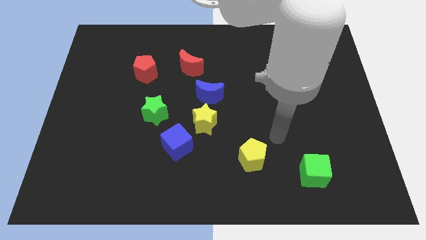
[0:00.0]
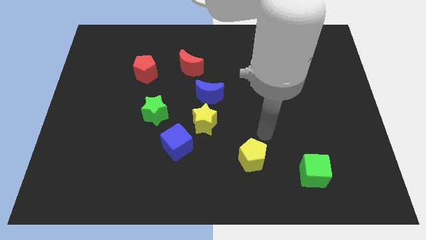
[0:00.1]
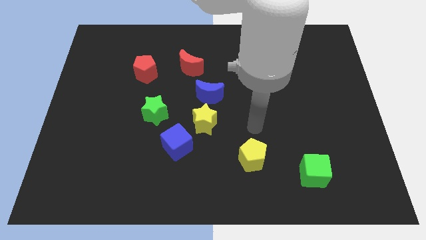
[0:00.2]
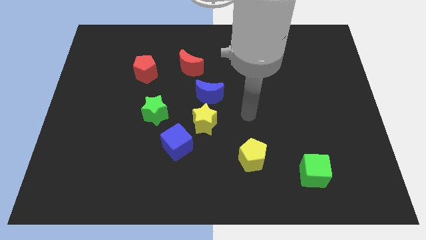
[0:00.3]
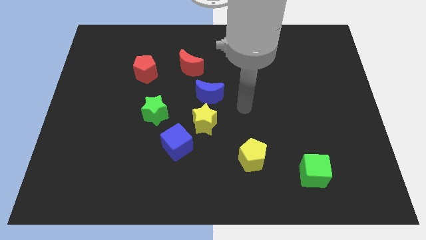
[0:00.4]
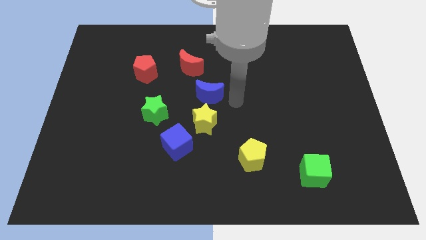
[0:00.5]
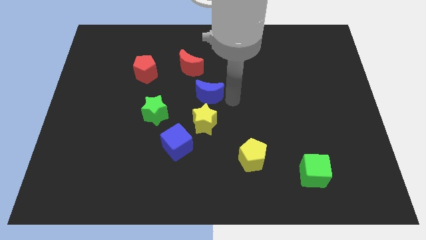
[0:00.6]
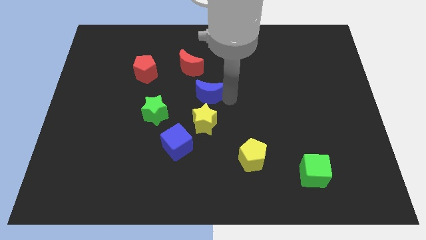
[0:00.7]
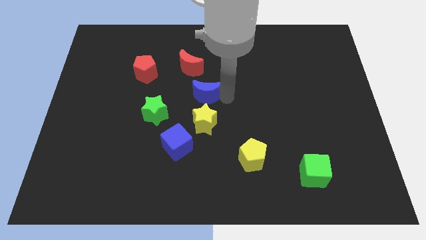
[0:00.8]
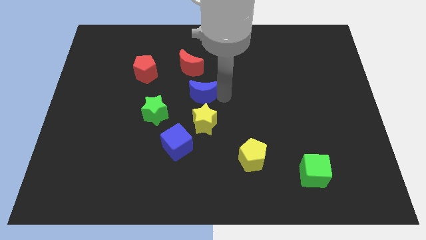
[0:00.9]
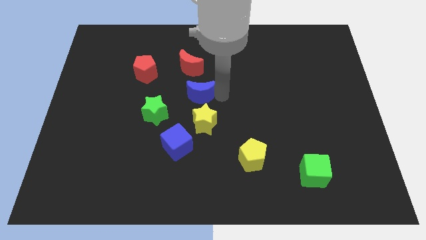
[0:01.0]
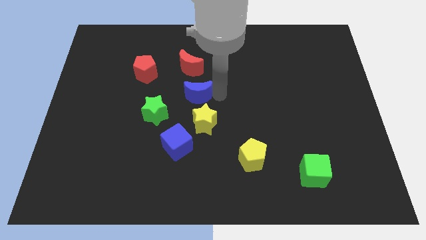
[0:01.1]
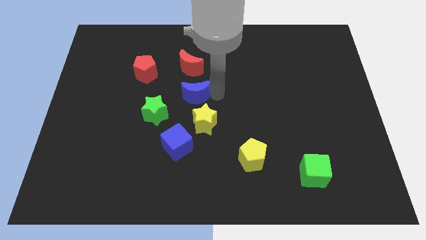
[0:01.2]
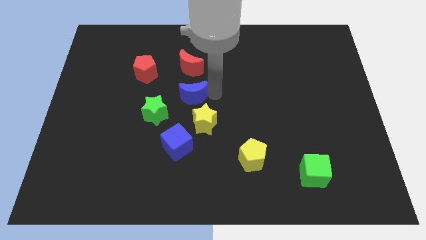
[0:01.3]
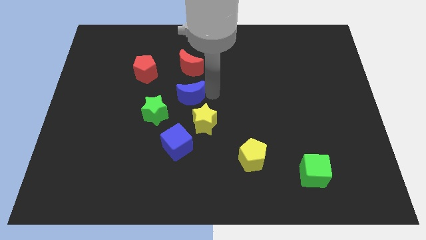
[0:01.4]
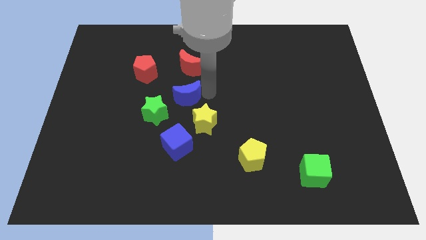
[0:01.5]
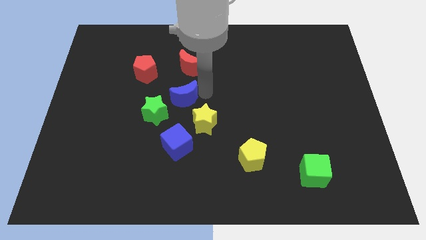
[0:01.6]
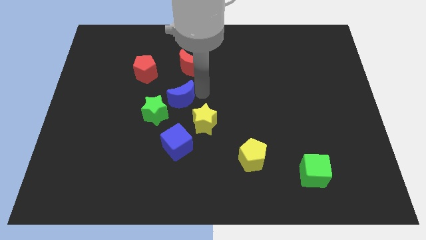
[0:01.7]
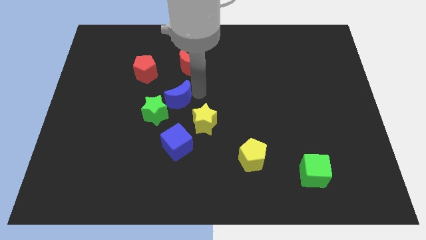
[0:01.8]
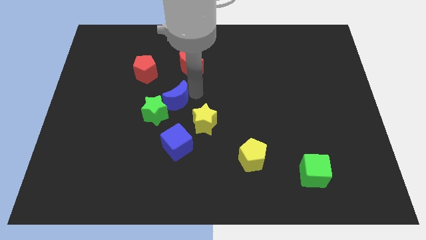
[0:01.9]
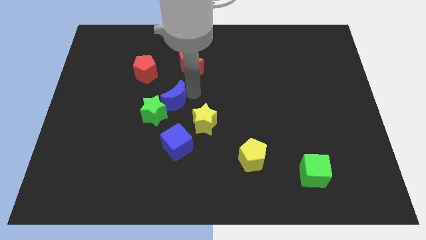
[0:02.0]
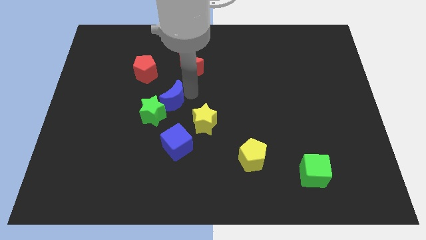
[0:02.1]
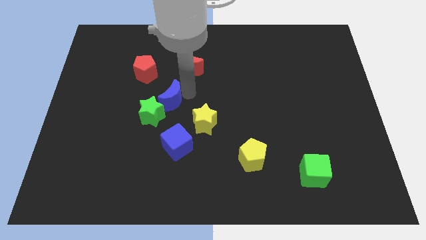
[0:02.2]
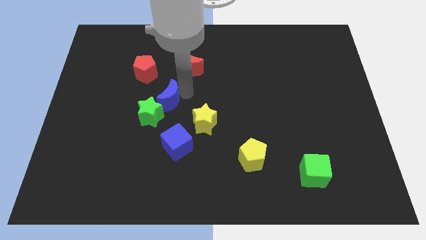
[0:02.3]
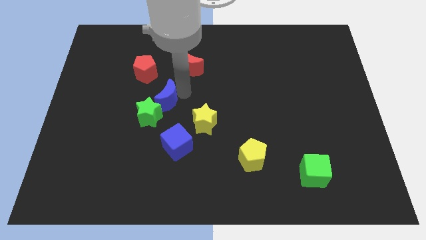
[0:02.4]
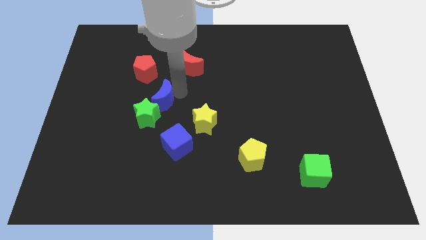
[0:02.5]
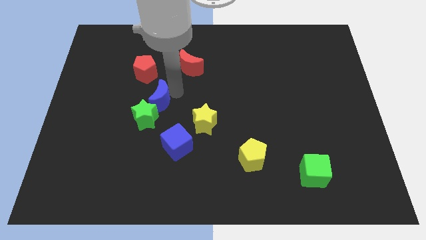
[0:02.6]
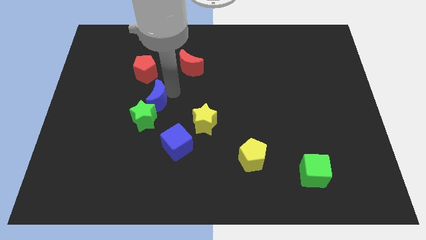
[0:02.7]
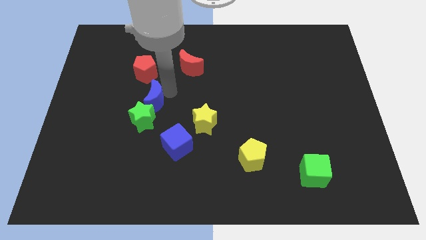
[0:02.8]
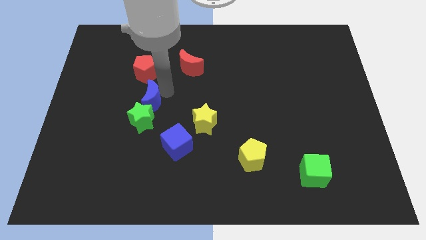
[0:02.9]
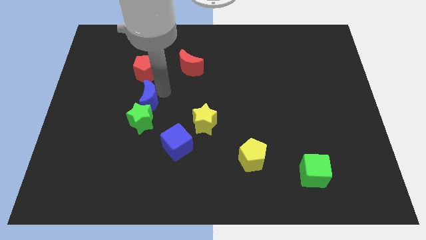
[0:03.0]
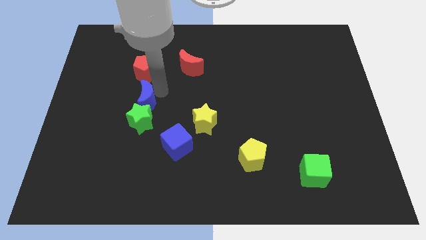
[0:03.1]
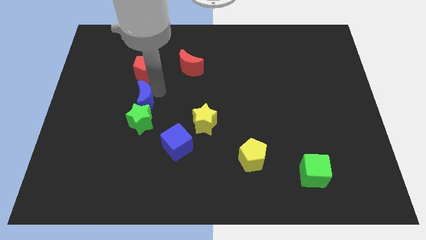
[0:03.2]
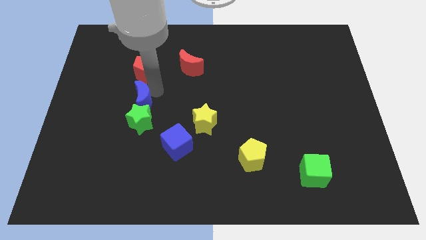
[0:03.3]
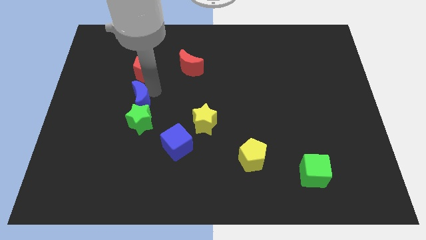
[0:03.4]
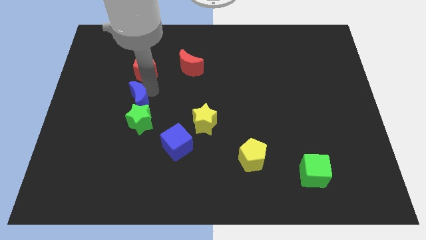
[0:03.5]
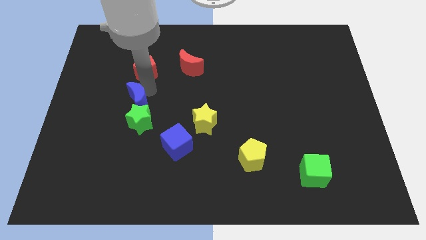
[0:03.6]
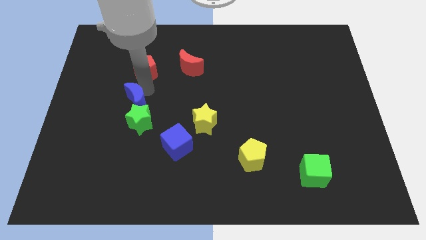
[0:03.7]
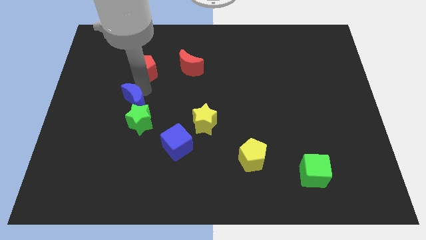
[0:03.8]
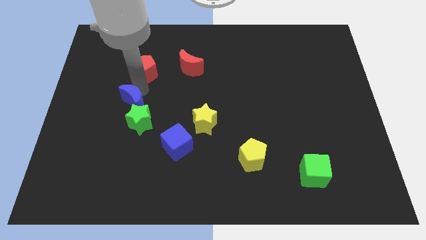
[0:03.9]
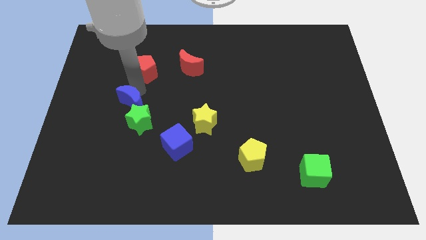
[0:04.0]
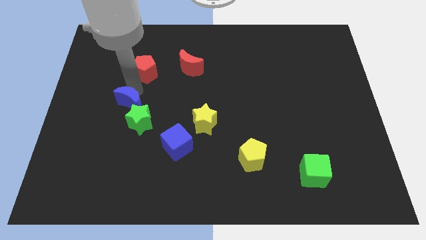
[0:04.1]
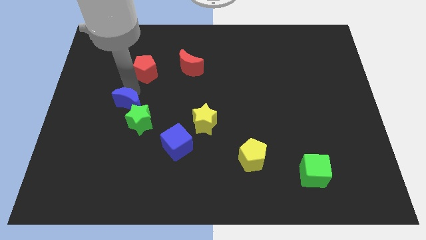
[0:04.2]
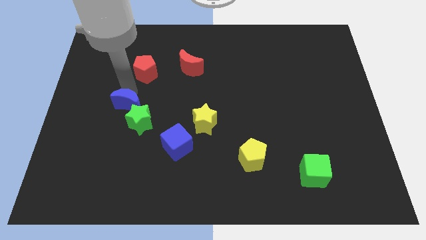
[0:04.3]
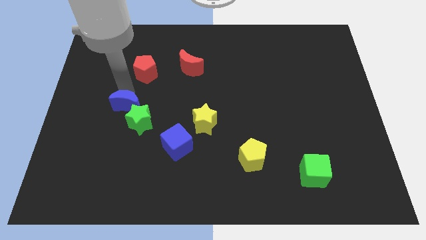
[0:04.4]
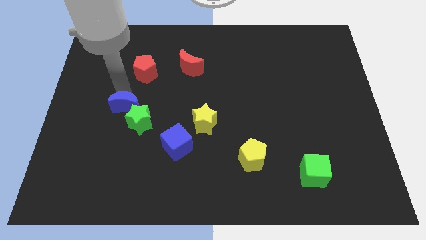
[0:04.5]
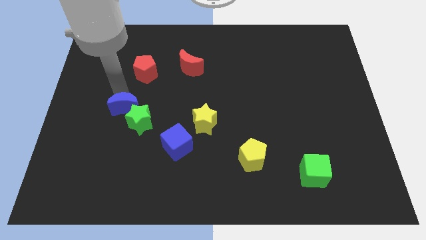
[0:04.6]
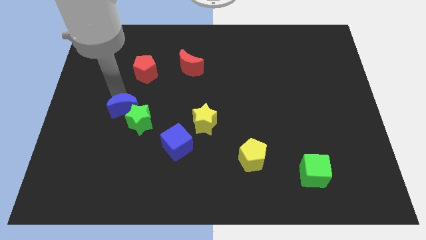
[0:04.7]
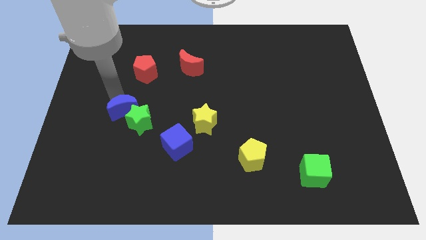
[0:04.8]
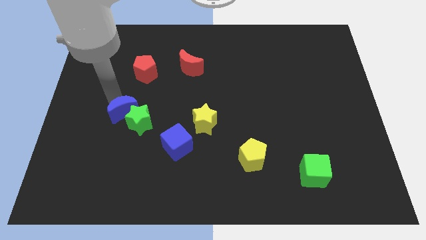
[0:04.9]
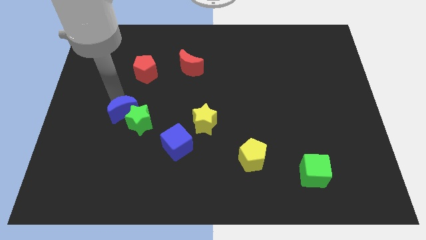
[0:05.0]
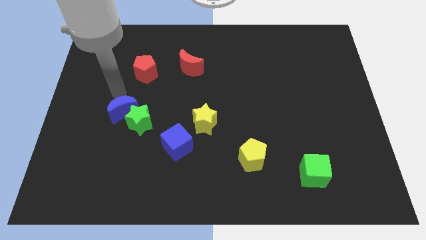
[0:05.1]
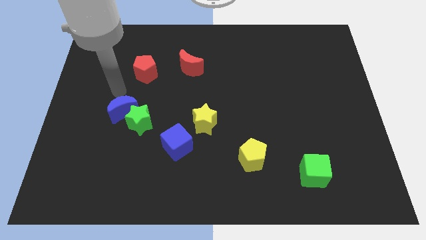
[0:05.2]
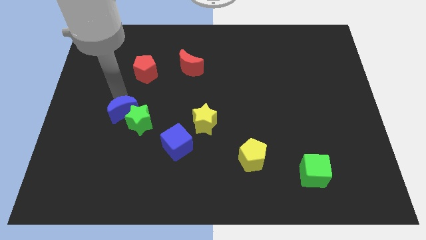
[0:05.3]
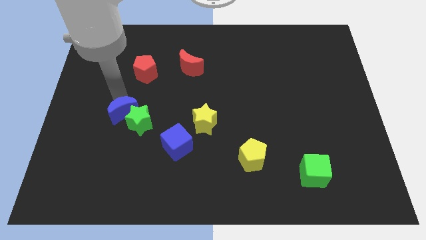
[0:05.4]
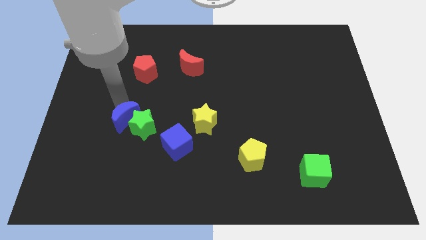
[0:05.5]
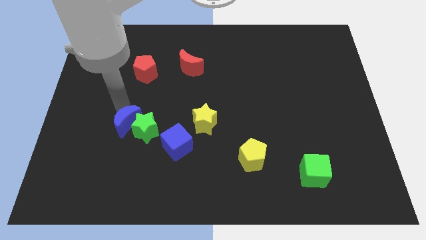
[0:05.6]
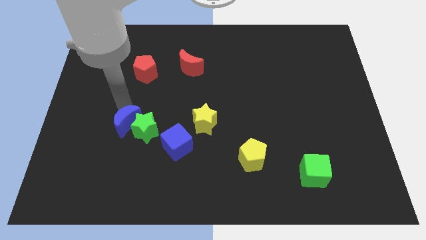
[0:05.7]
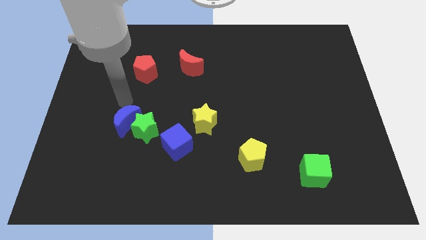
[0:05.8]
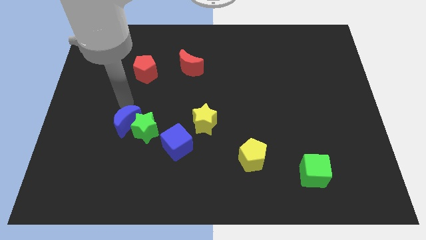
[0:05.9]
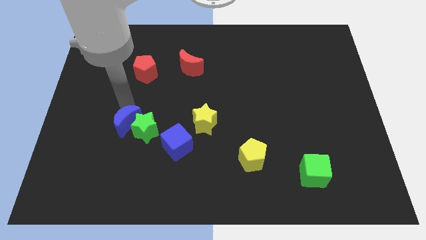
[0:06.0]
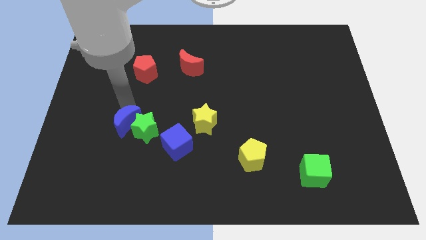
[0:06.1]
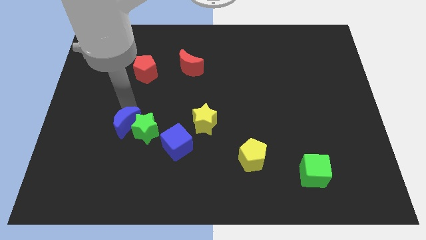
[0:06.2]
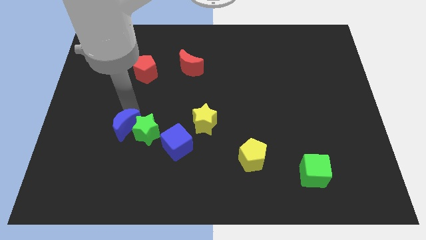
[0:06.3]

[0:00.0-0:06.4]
move the blue moon to the left of the blue cube

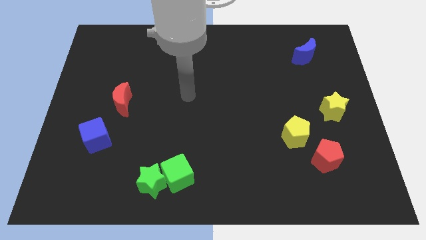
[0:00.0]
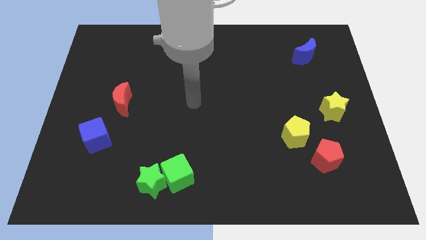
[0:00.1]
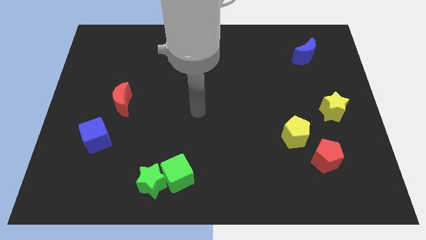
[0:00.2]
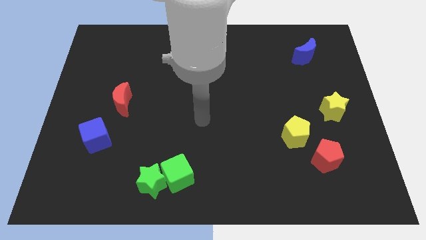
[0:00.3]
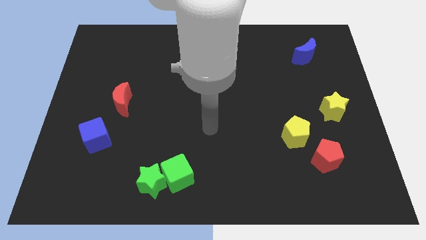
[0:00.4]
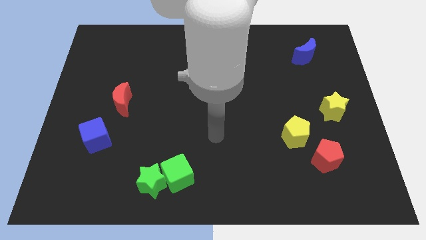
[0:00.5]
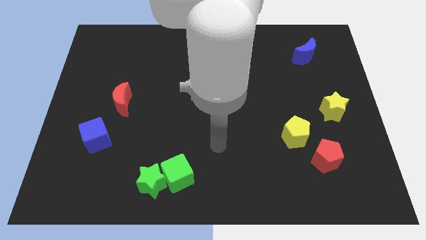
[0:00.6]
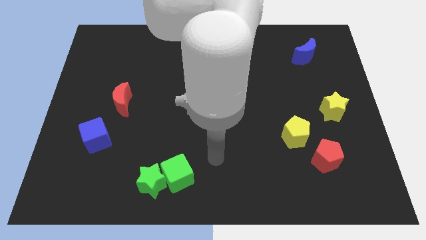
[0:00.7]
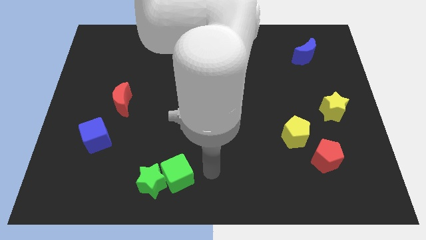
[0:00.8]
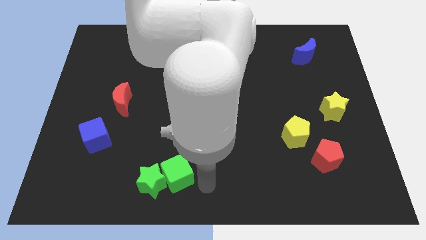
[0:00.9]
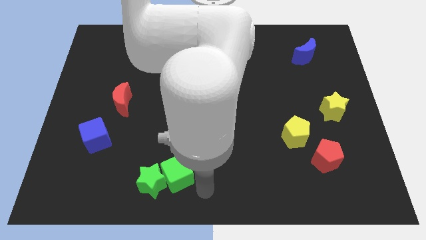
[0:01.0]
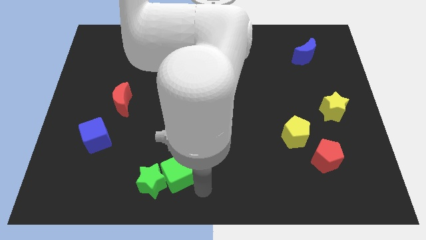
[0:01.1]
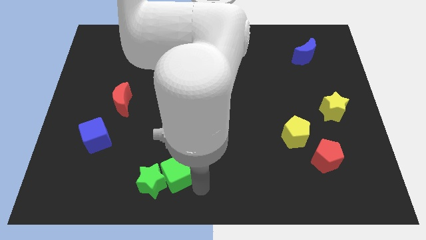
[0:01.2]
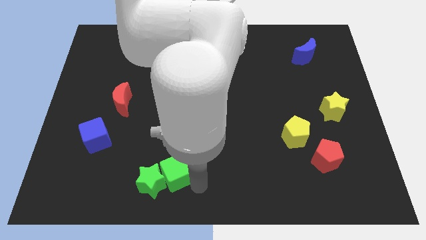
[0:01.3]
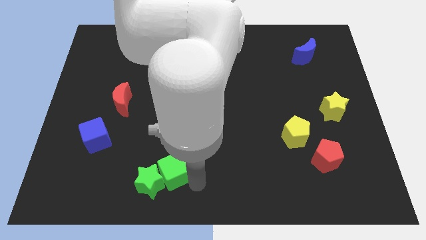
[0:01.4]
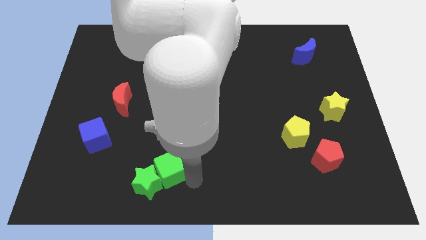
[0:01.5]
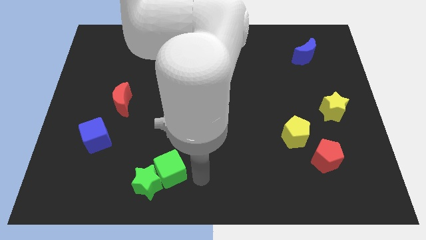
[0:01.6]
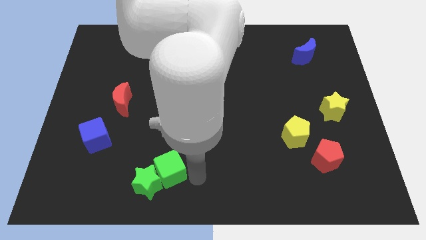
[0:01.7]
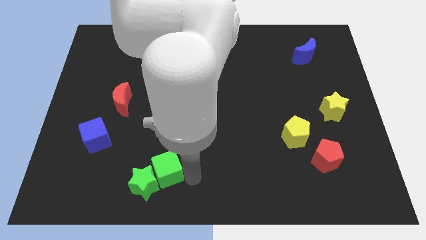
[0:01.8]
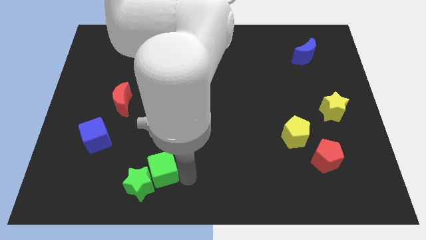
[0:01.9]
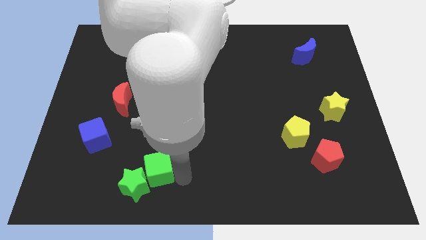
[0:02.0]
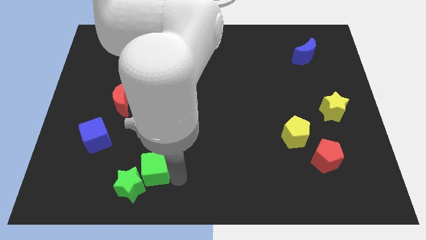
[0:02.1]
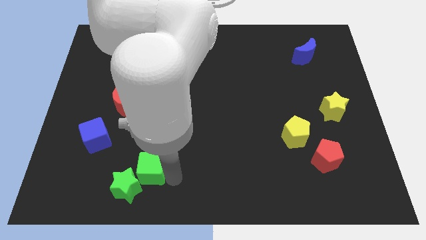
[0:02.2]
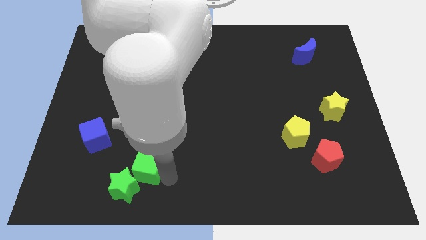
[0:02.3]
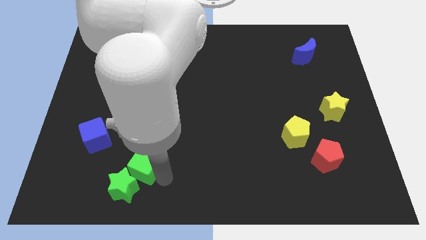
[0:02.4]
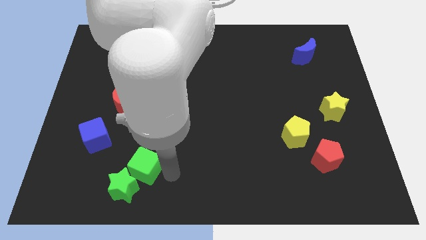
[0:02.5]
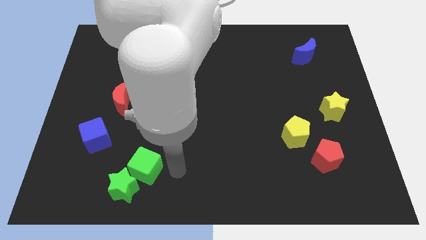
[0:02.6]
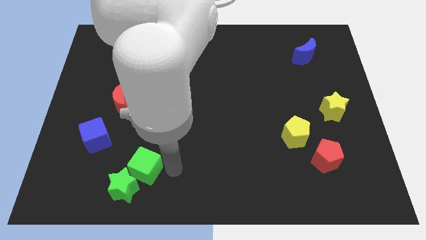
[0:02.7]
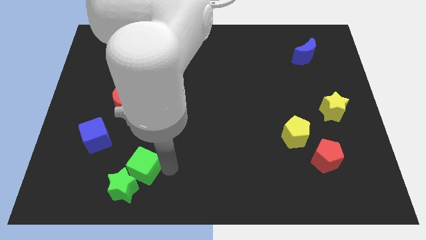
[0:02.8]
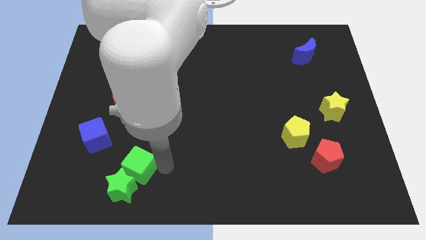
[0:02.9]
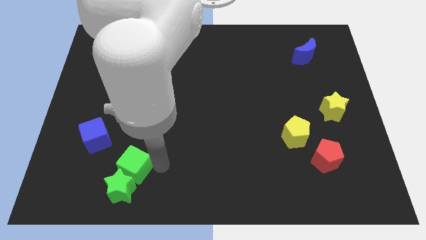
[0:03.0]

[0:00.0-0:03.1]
push the green cube to the top left side of the green star
